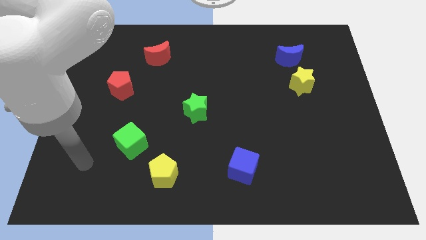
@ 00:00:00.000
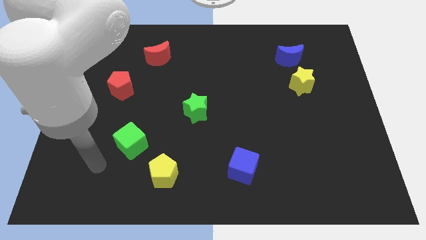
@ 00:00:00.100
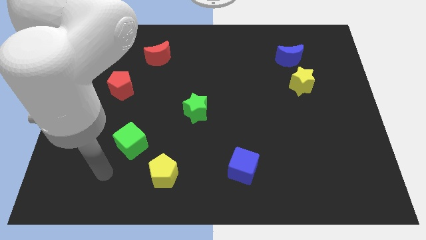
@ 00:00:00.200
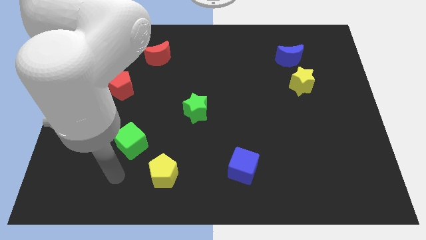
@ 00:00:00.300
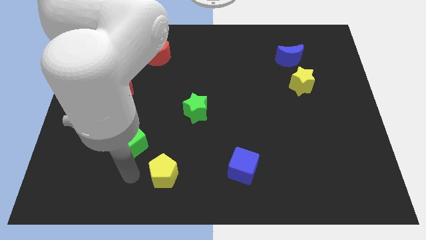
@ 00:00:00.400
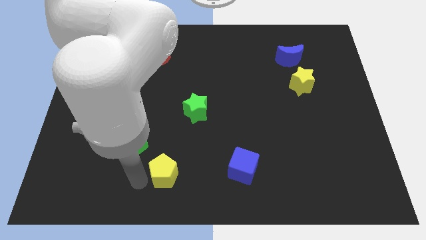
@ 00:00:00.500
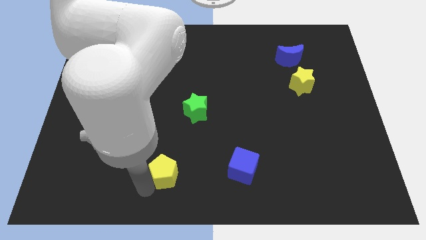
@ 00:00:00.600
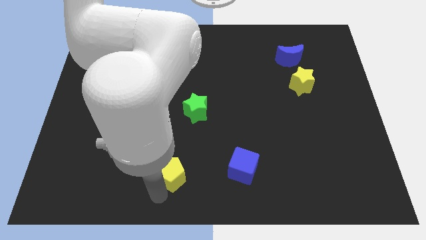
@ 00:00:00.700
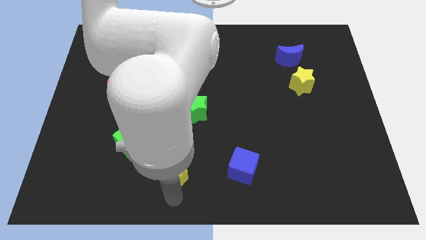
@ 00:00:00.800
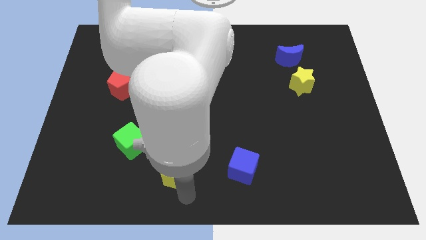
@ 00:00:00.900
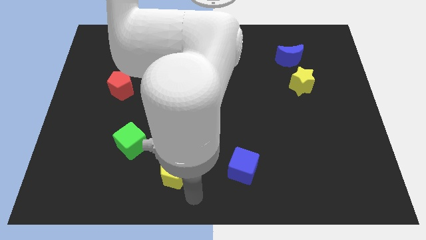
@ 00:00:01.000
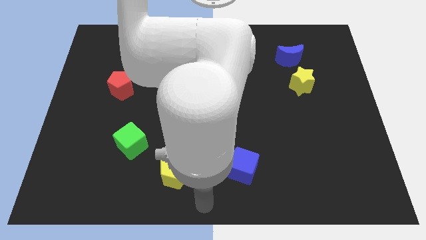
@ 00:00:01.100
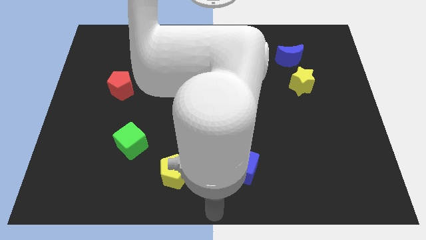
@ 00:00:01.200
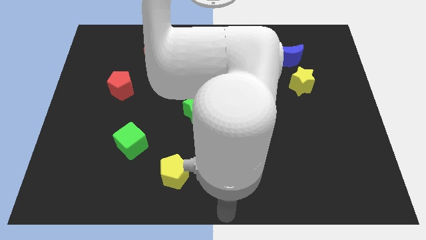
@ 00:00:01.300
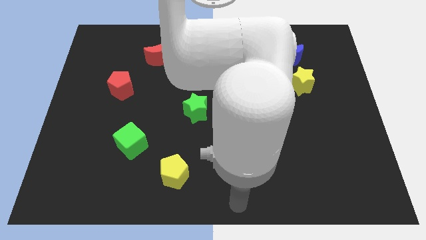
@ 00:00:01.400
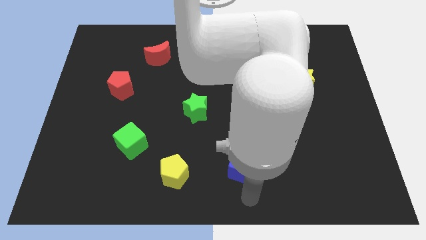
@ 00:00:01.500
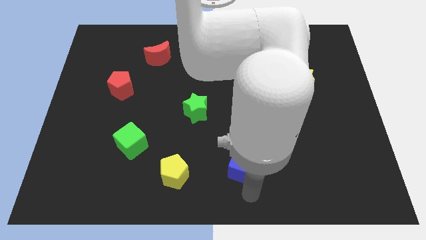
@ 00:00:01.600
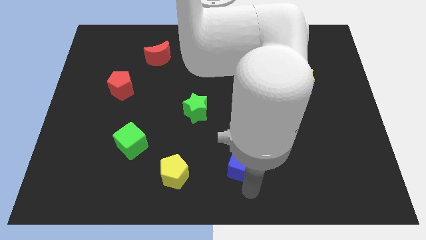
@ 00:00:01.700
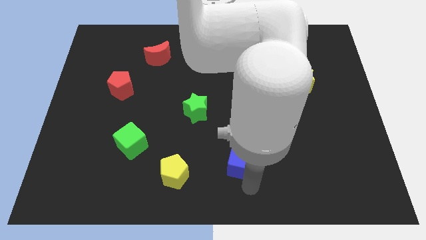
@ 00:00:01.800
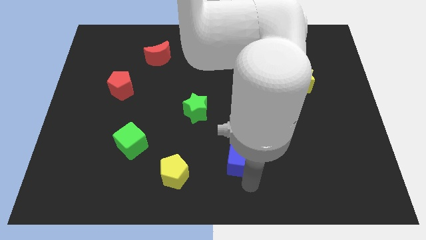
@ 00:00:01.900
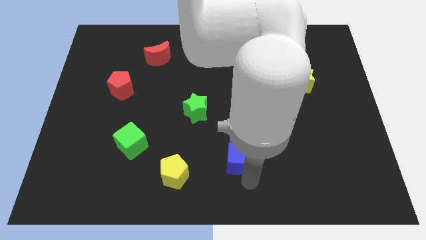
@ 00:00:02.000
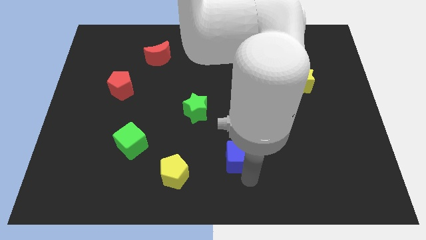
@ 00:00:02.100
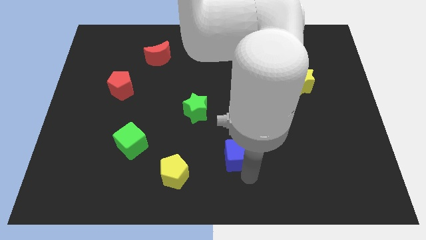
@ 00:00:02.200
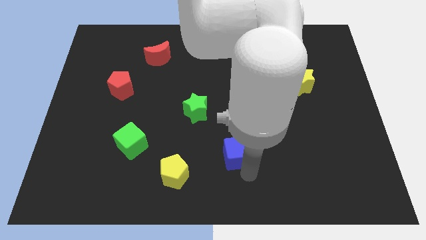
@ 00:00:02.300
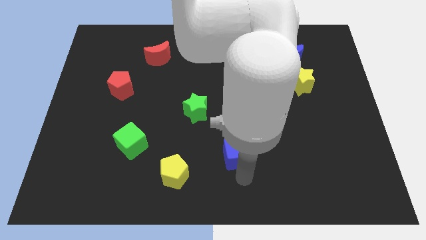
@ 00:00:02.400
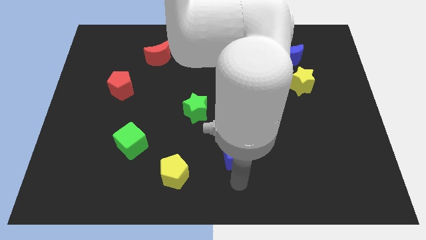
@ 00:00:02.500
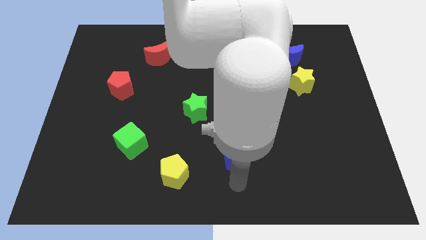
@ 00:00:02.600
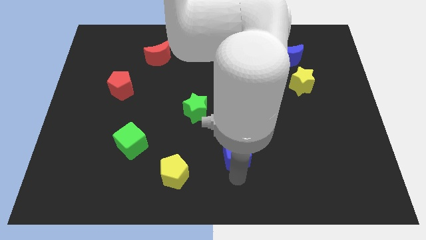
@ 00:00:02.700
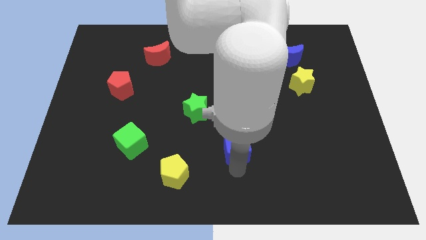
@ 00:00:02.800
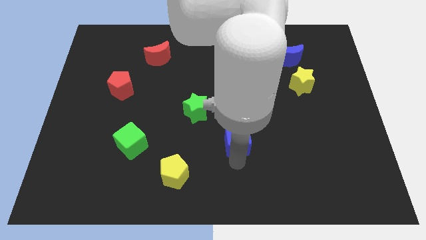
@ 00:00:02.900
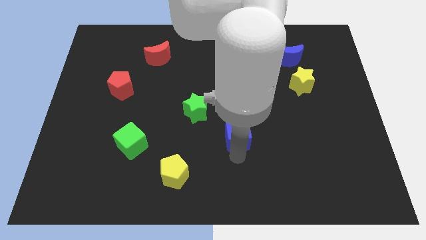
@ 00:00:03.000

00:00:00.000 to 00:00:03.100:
slide the blue cube upwards a little bit

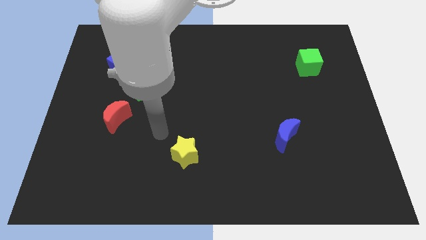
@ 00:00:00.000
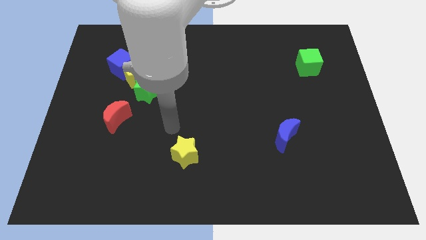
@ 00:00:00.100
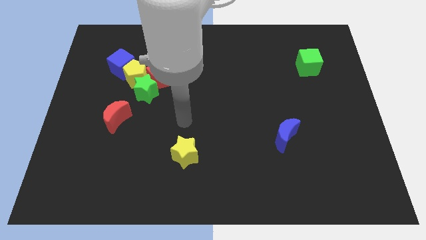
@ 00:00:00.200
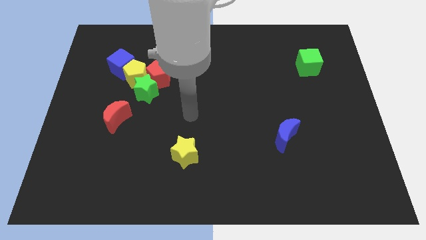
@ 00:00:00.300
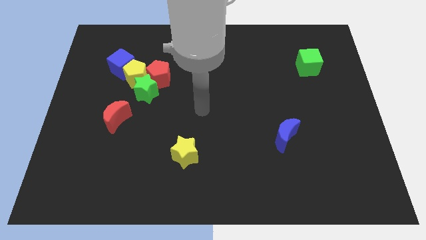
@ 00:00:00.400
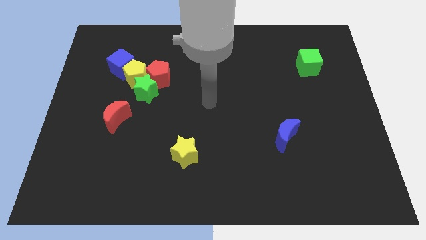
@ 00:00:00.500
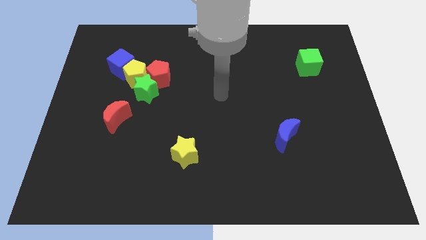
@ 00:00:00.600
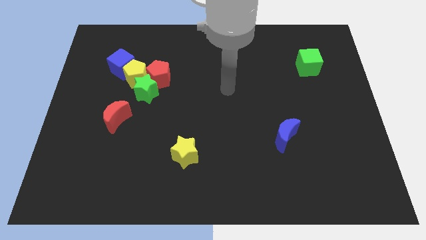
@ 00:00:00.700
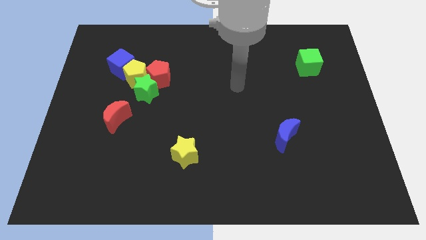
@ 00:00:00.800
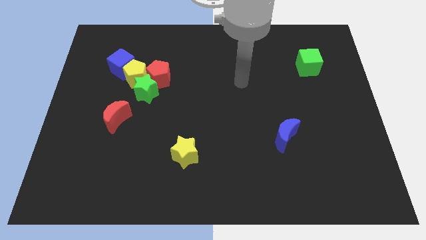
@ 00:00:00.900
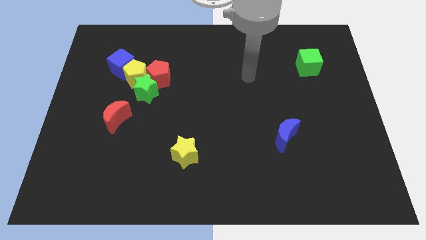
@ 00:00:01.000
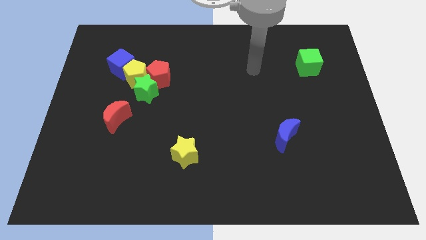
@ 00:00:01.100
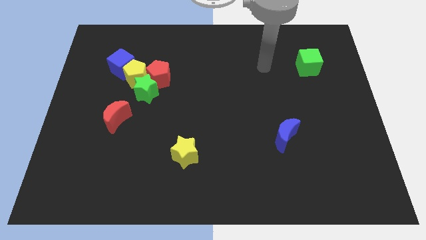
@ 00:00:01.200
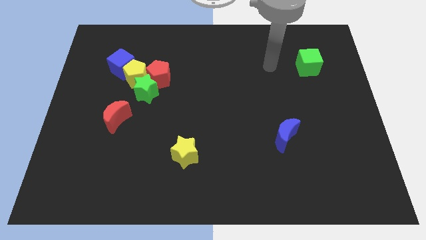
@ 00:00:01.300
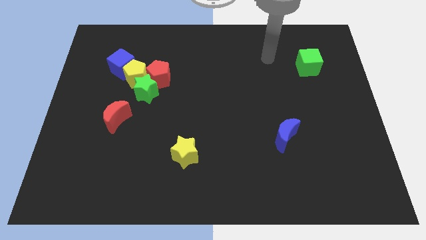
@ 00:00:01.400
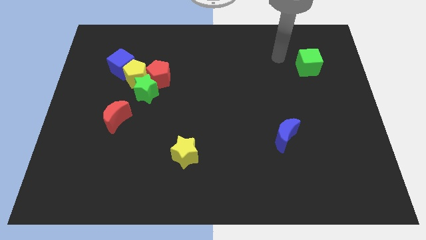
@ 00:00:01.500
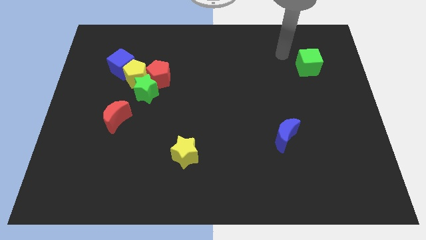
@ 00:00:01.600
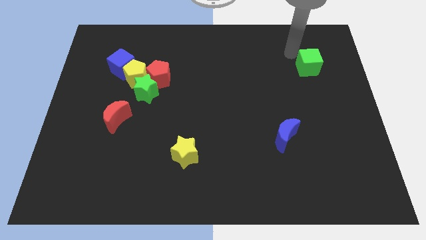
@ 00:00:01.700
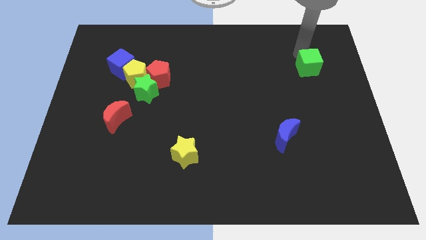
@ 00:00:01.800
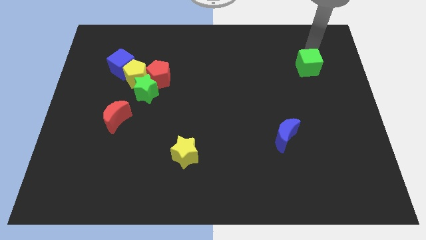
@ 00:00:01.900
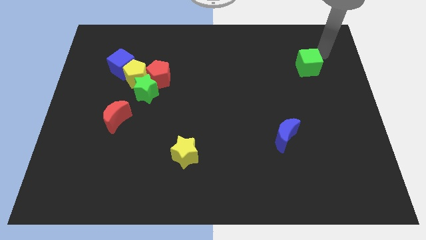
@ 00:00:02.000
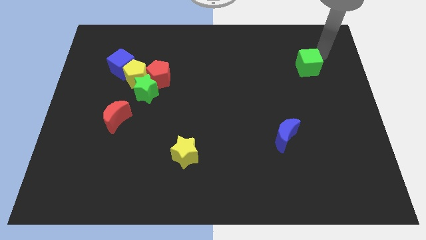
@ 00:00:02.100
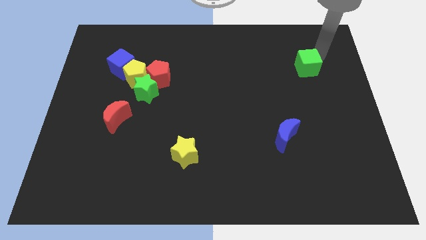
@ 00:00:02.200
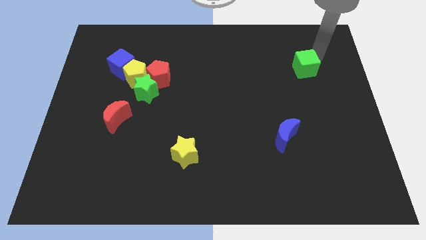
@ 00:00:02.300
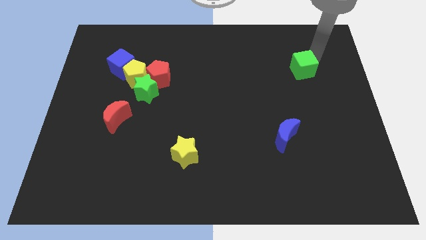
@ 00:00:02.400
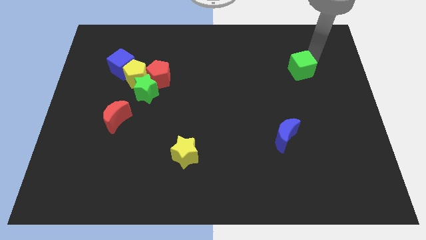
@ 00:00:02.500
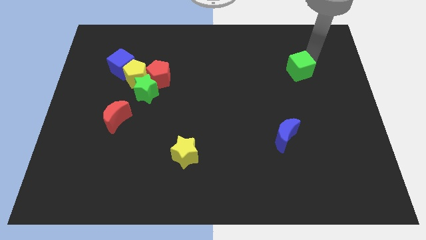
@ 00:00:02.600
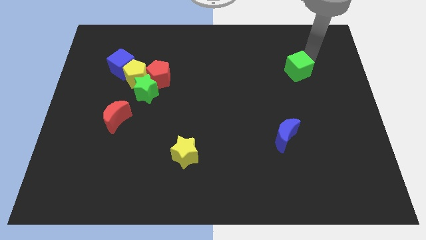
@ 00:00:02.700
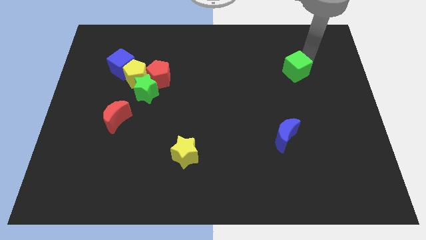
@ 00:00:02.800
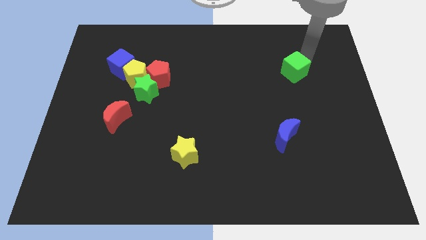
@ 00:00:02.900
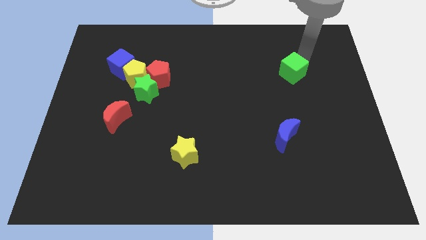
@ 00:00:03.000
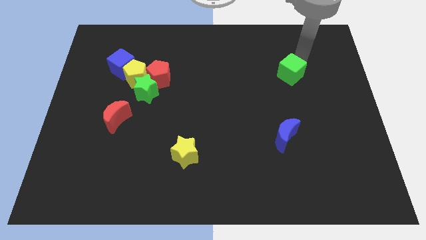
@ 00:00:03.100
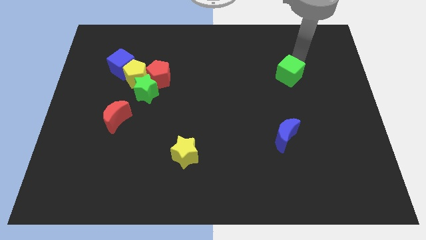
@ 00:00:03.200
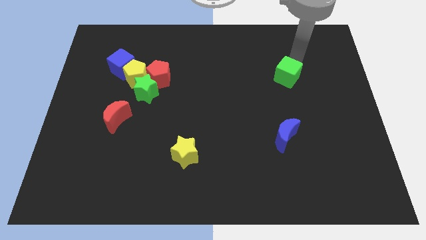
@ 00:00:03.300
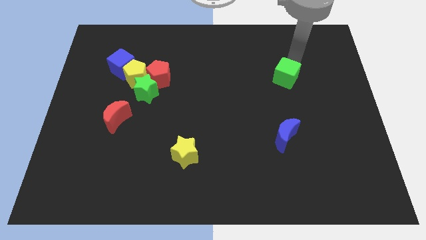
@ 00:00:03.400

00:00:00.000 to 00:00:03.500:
push the green cube a bit diagonally downwards and left

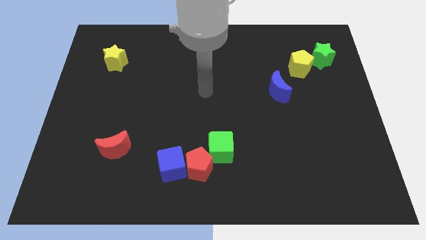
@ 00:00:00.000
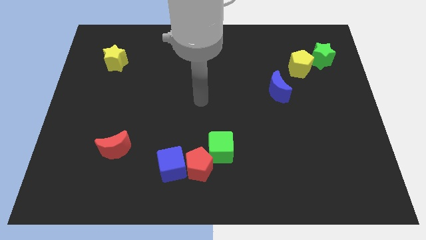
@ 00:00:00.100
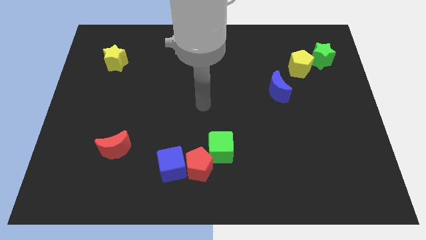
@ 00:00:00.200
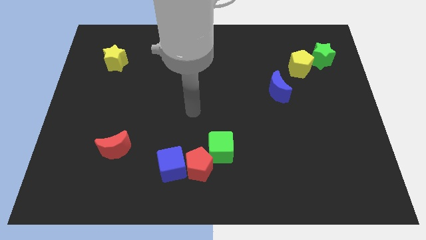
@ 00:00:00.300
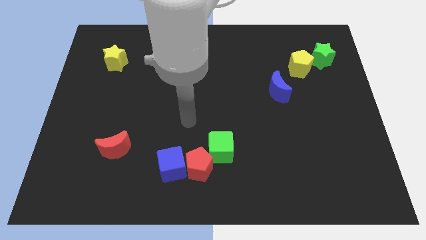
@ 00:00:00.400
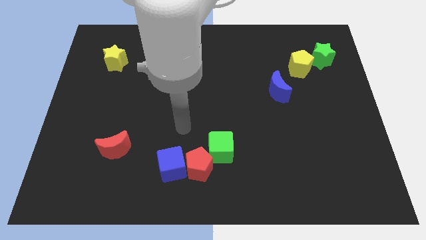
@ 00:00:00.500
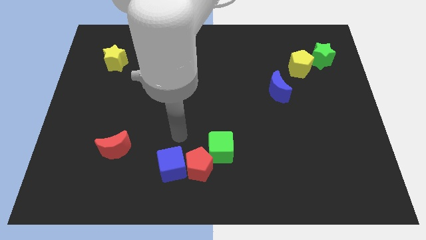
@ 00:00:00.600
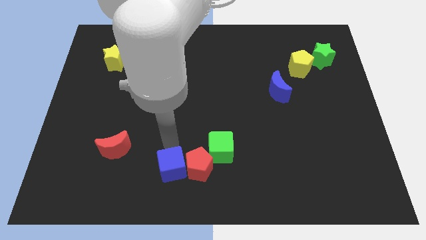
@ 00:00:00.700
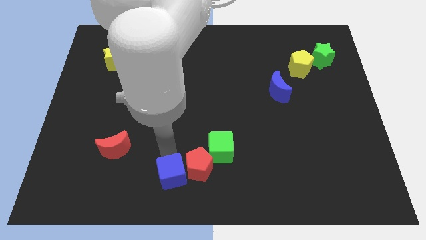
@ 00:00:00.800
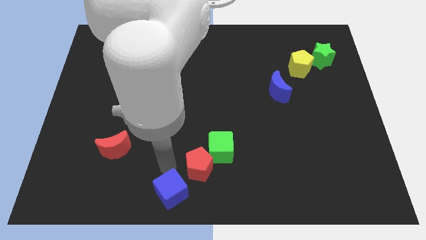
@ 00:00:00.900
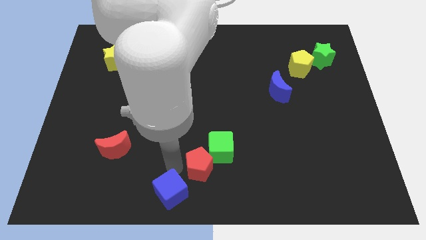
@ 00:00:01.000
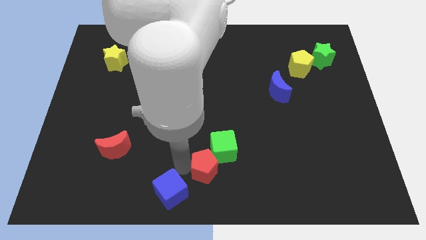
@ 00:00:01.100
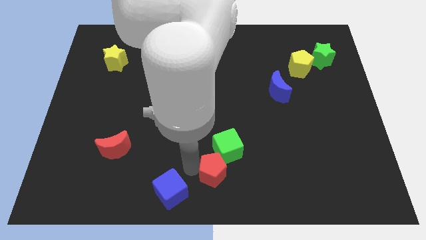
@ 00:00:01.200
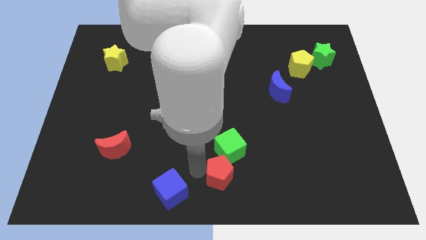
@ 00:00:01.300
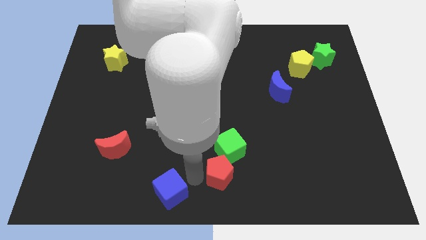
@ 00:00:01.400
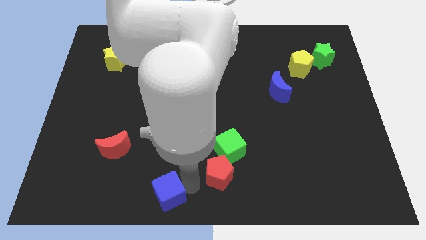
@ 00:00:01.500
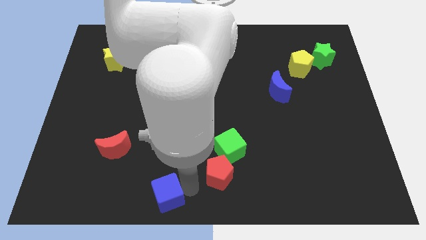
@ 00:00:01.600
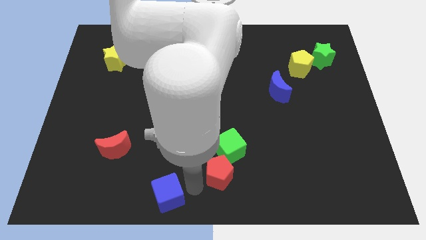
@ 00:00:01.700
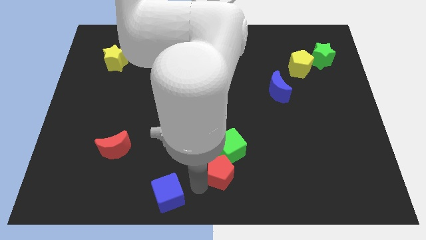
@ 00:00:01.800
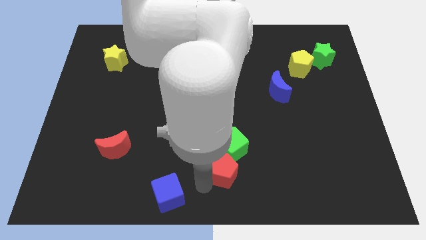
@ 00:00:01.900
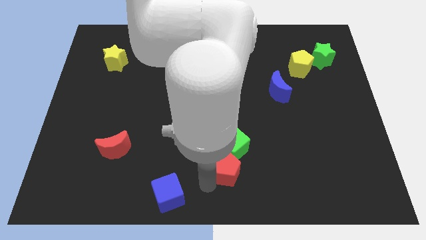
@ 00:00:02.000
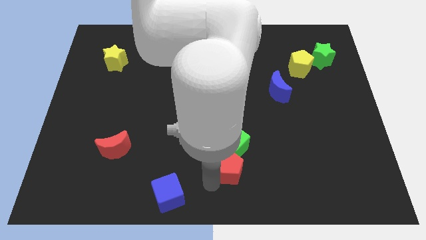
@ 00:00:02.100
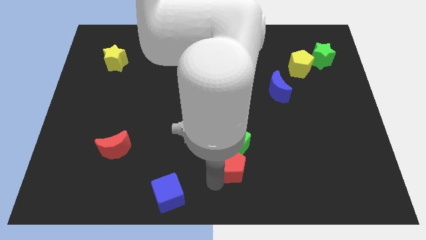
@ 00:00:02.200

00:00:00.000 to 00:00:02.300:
slightly push the red pentagon right
